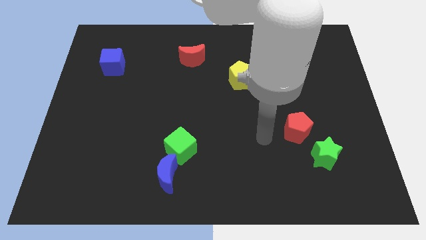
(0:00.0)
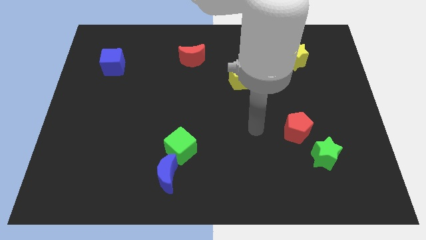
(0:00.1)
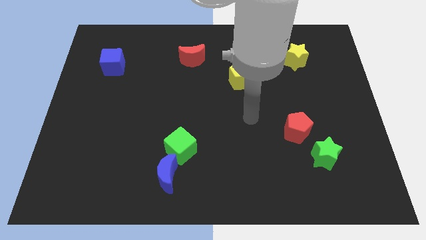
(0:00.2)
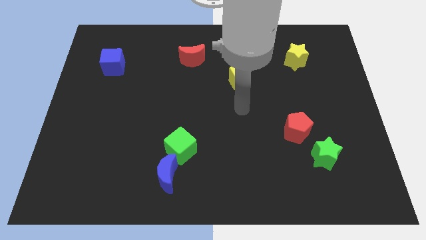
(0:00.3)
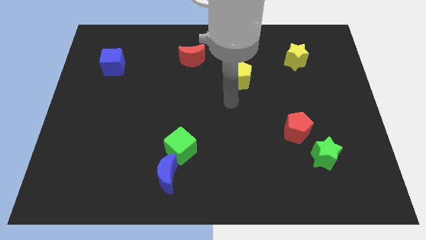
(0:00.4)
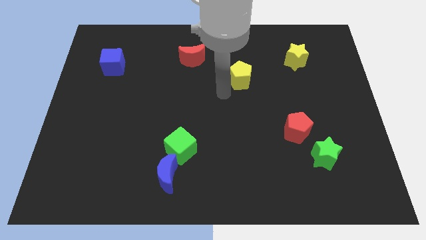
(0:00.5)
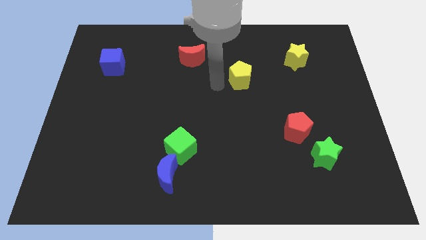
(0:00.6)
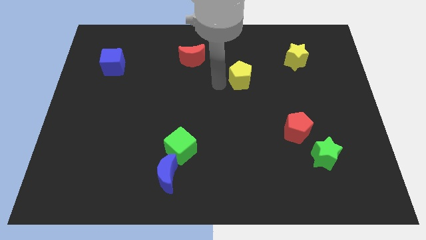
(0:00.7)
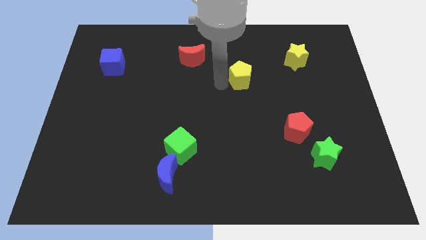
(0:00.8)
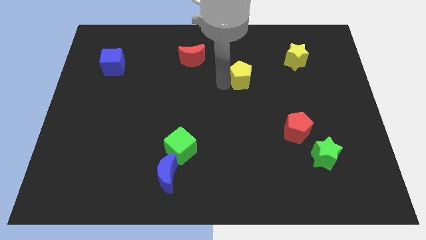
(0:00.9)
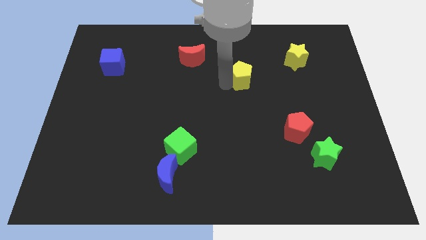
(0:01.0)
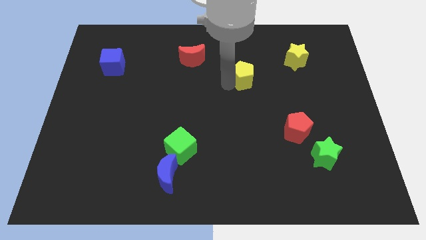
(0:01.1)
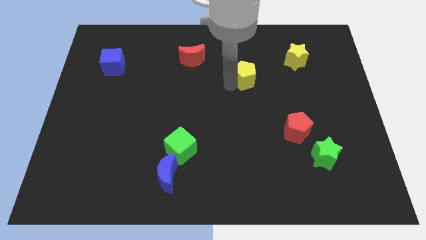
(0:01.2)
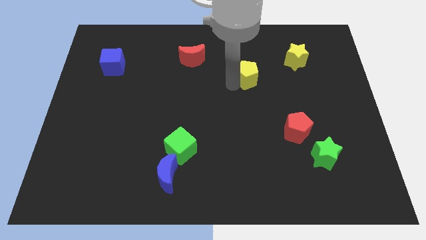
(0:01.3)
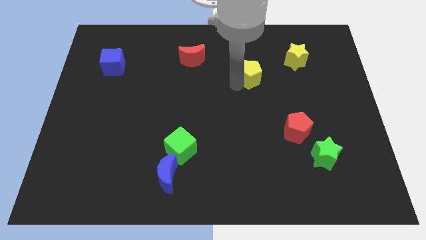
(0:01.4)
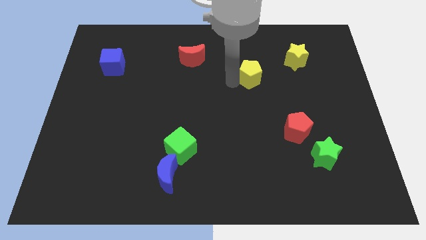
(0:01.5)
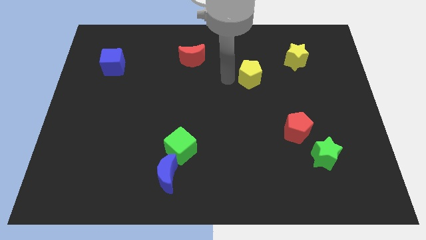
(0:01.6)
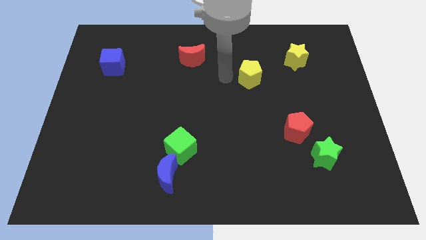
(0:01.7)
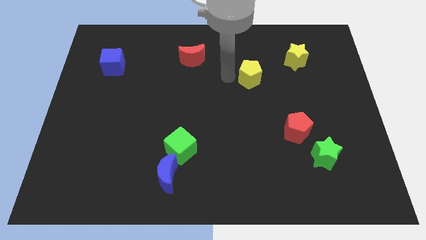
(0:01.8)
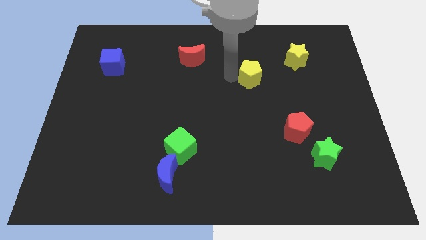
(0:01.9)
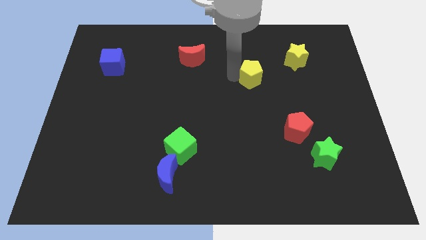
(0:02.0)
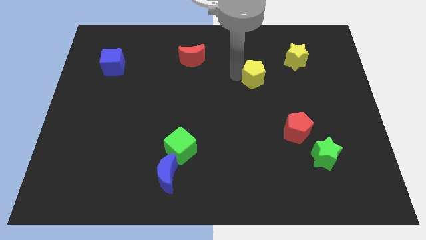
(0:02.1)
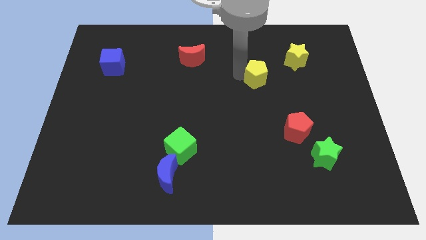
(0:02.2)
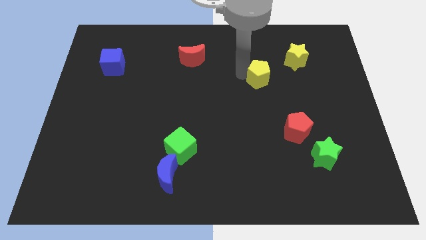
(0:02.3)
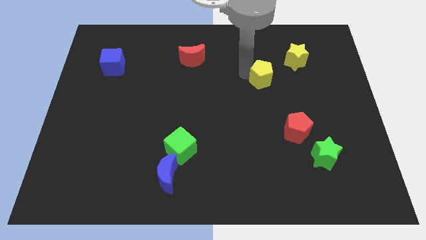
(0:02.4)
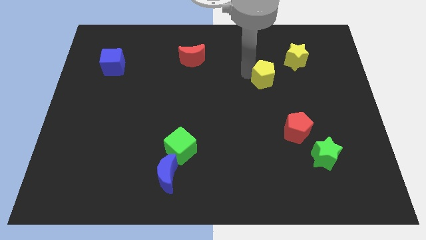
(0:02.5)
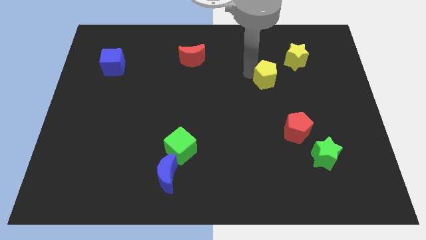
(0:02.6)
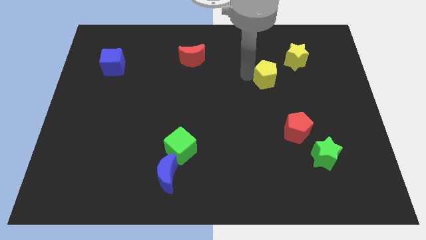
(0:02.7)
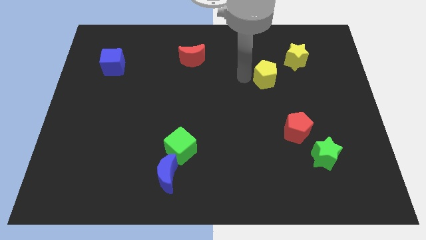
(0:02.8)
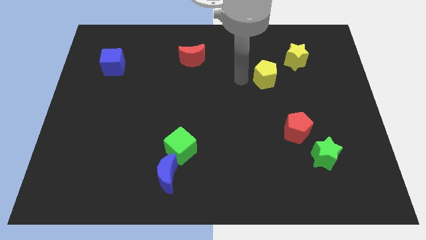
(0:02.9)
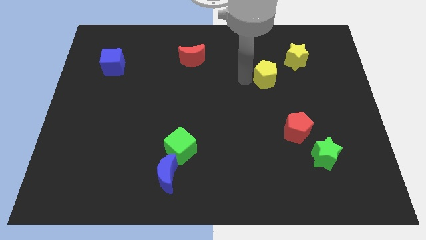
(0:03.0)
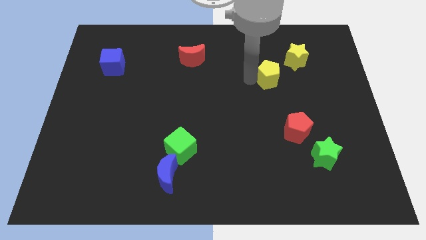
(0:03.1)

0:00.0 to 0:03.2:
slightly slide the yellow pentagon right

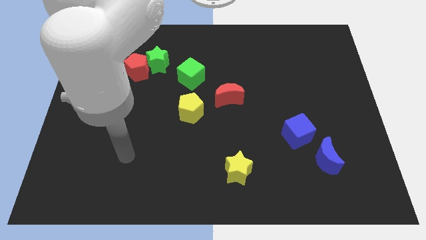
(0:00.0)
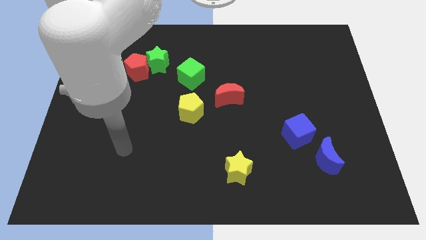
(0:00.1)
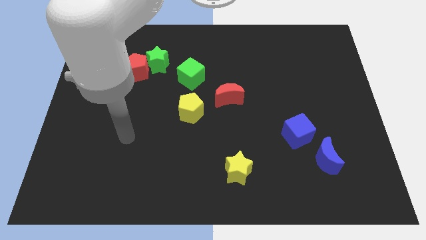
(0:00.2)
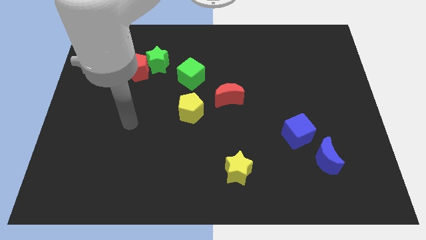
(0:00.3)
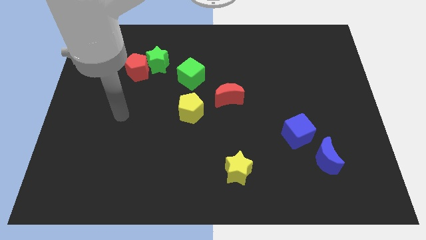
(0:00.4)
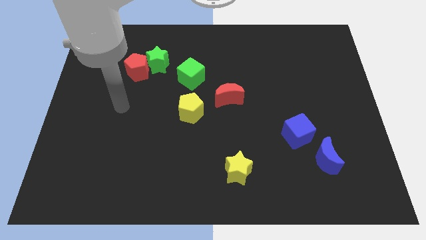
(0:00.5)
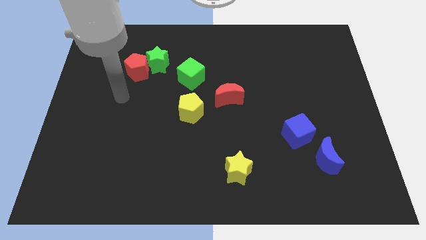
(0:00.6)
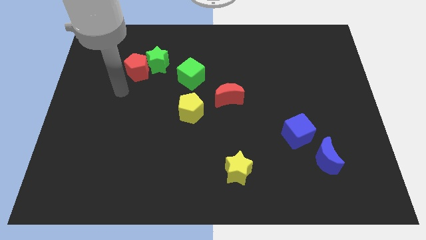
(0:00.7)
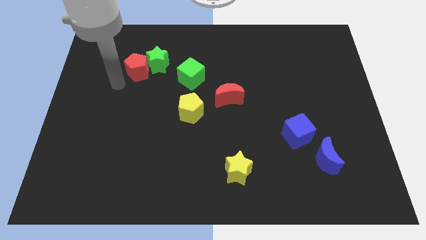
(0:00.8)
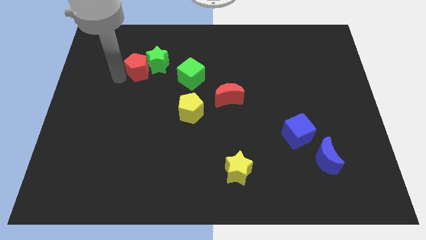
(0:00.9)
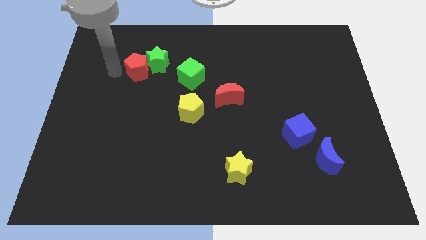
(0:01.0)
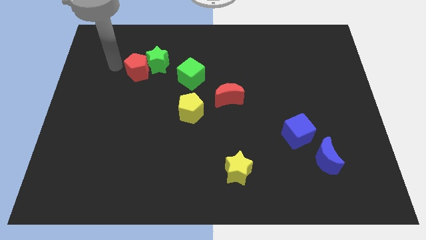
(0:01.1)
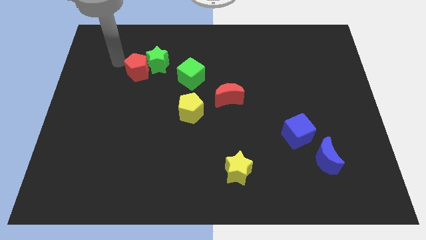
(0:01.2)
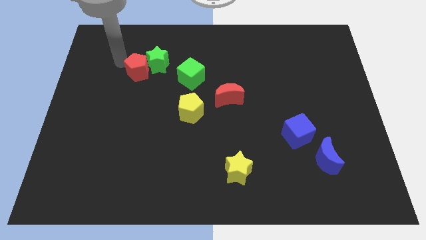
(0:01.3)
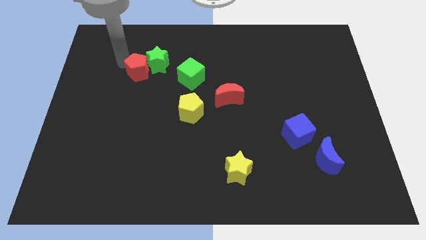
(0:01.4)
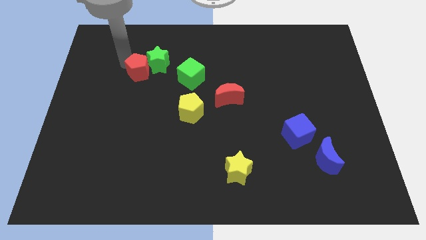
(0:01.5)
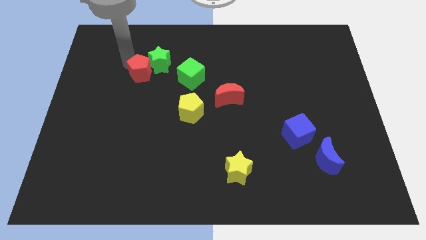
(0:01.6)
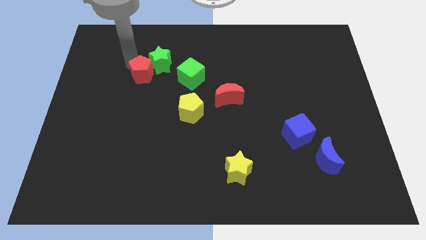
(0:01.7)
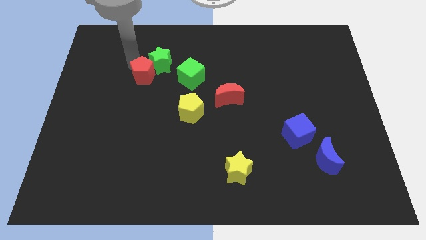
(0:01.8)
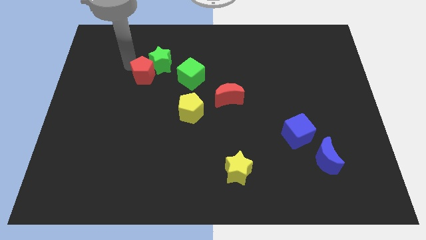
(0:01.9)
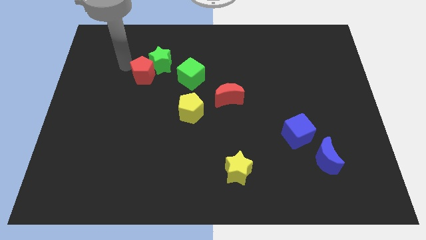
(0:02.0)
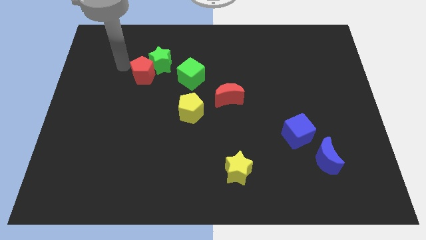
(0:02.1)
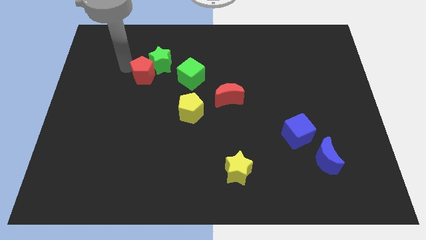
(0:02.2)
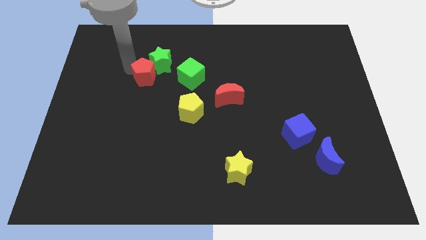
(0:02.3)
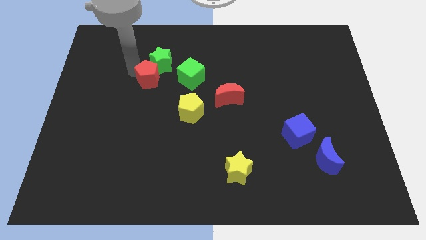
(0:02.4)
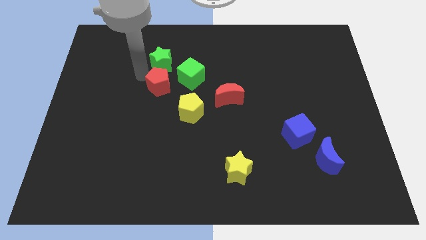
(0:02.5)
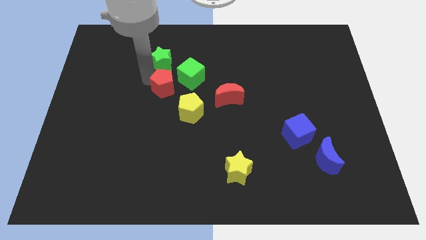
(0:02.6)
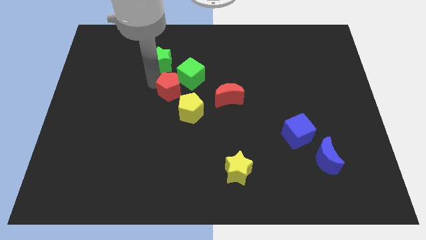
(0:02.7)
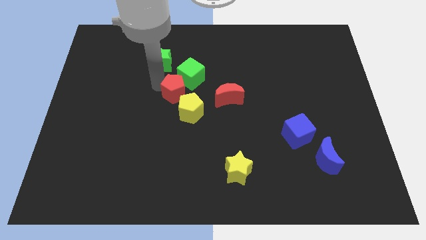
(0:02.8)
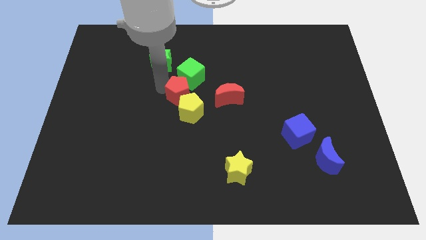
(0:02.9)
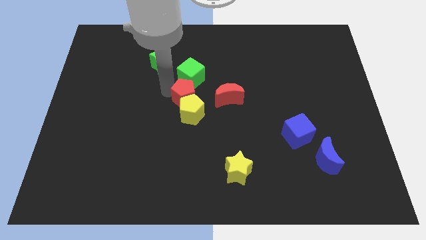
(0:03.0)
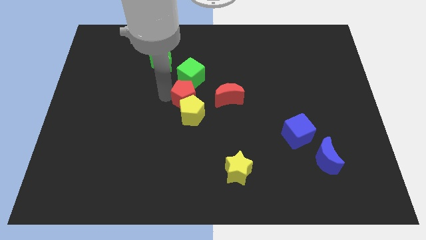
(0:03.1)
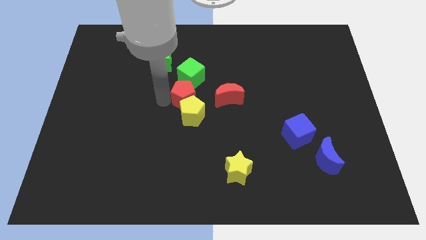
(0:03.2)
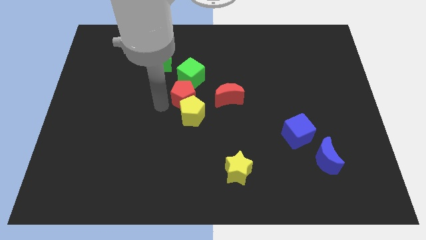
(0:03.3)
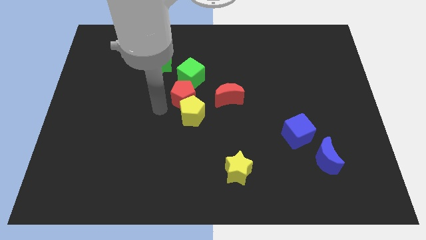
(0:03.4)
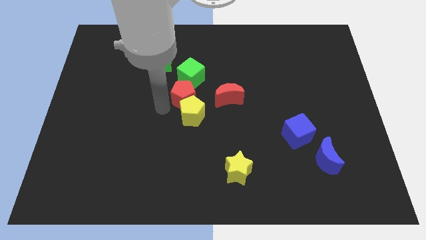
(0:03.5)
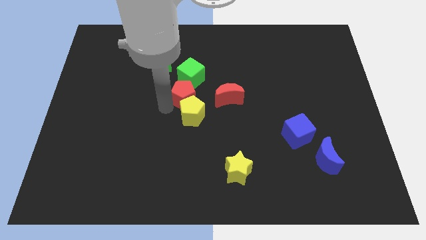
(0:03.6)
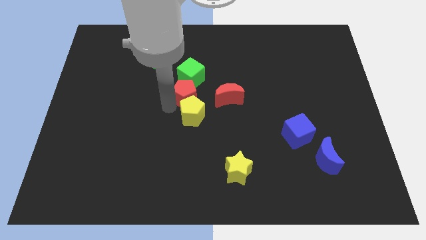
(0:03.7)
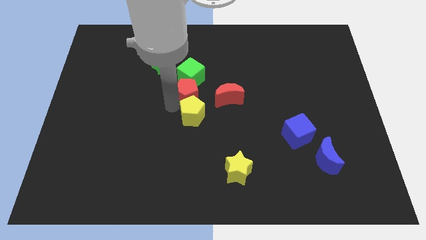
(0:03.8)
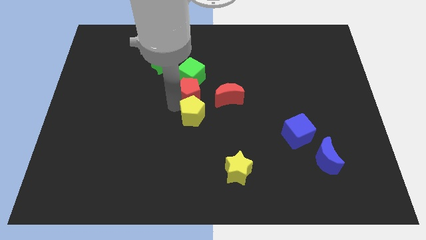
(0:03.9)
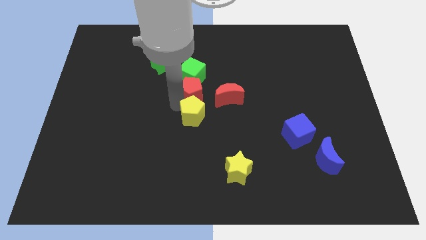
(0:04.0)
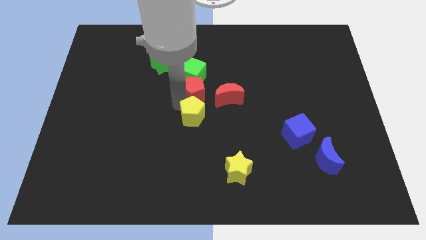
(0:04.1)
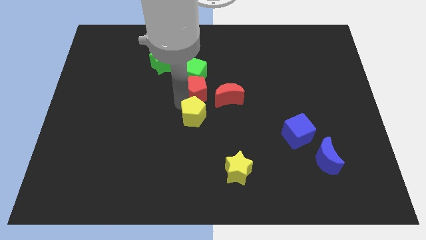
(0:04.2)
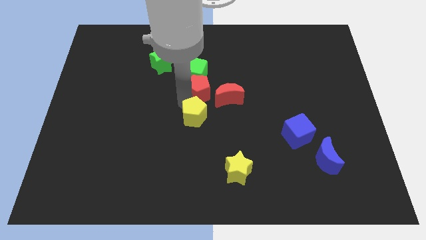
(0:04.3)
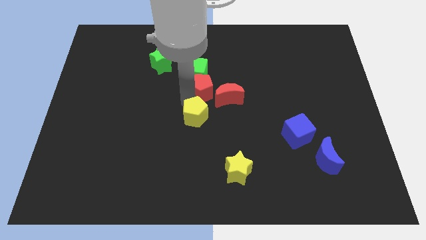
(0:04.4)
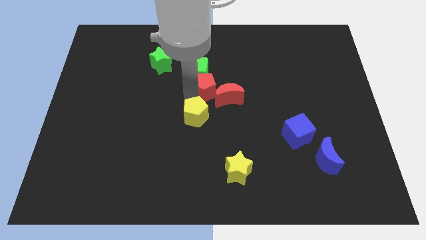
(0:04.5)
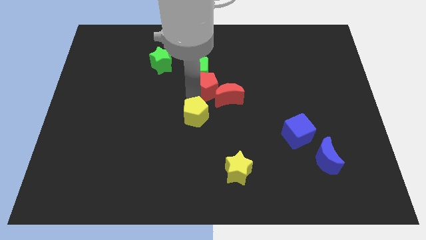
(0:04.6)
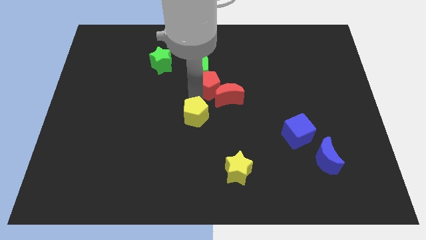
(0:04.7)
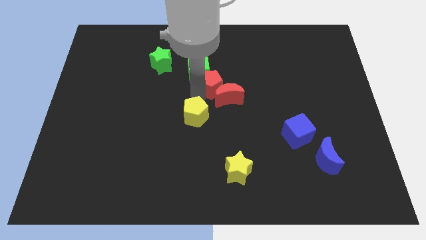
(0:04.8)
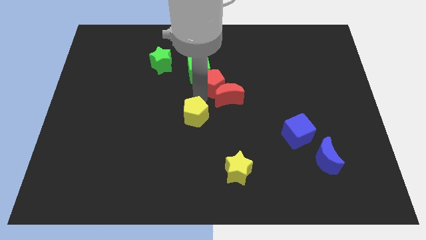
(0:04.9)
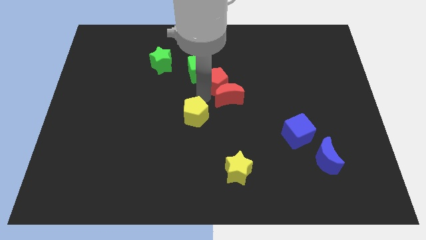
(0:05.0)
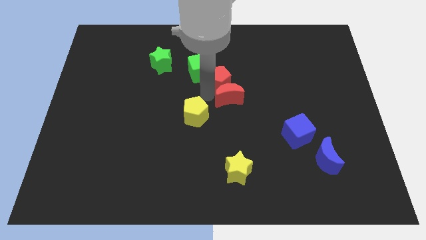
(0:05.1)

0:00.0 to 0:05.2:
push the red pentagon to the right
